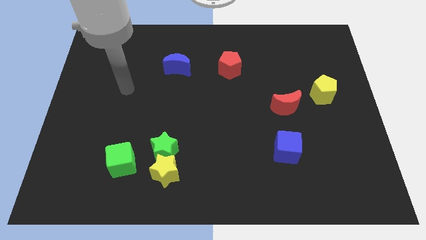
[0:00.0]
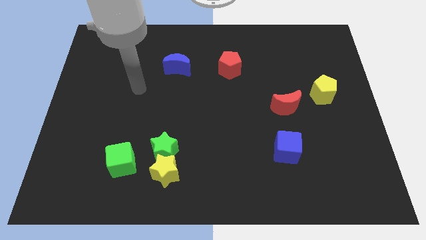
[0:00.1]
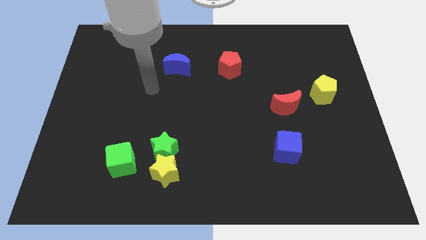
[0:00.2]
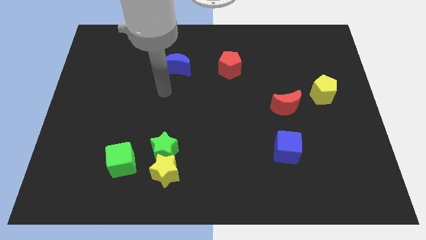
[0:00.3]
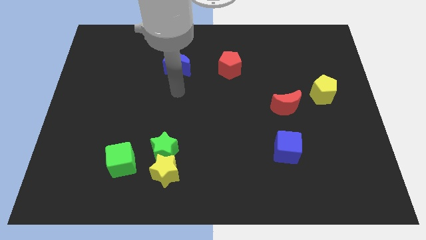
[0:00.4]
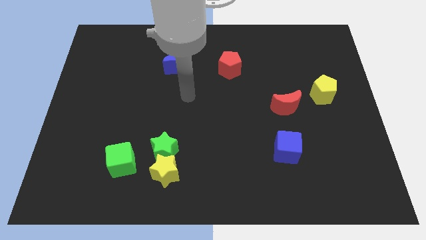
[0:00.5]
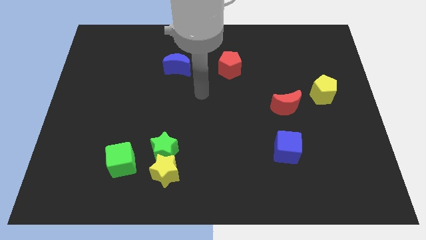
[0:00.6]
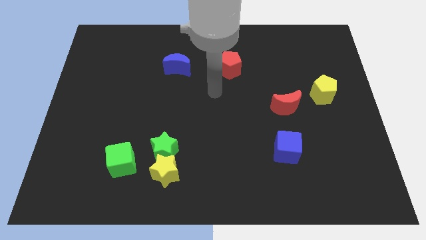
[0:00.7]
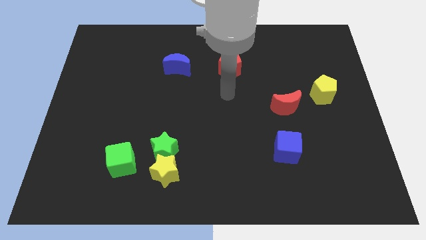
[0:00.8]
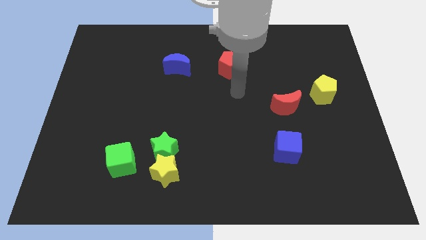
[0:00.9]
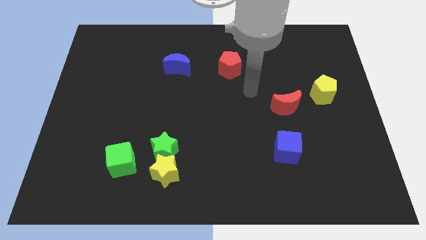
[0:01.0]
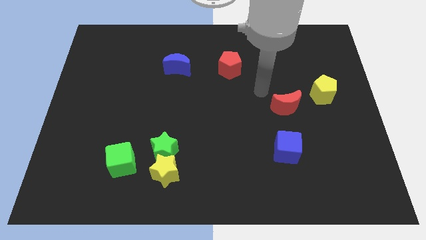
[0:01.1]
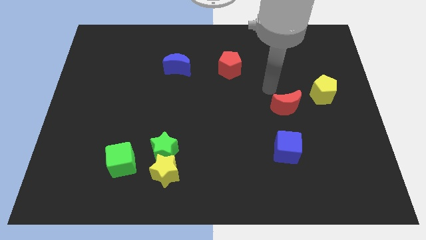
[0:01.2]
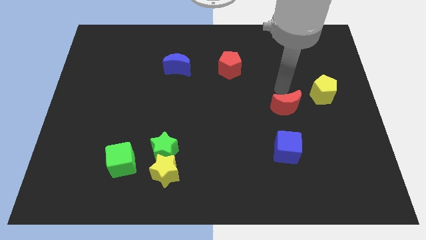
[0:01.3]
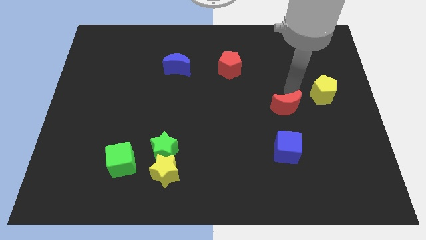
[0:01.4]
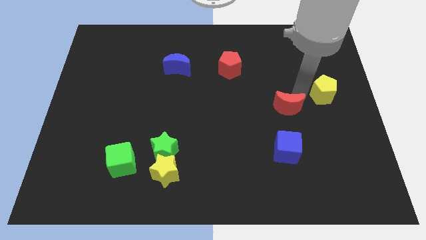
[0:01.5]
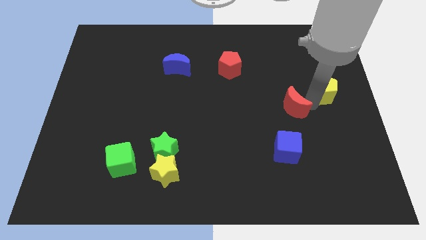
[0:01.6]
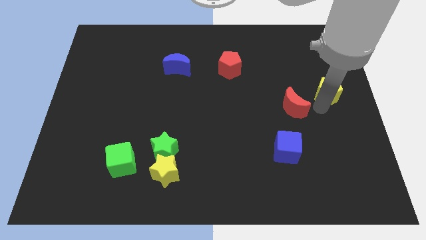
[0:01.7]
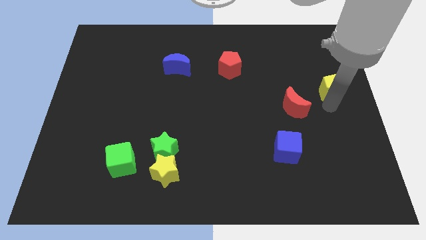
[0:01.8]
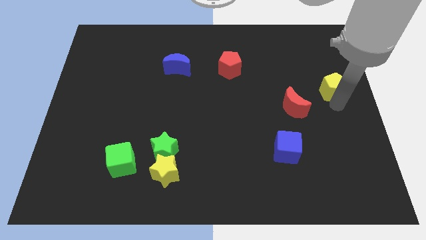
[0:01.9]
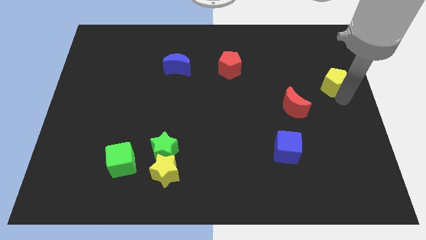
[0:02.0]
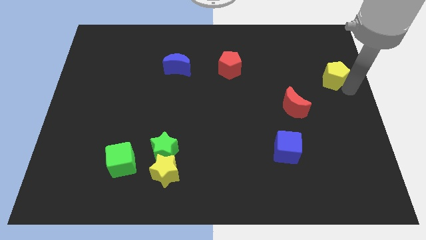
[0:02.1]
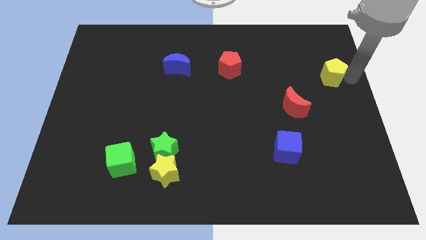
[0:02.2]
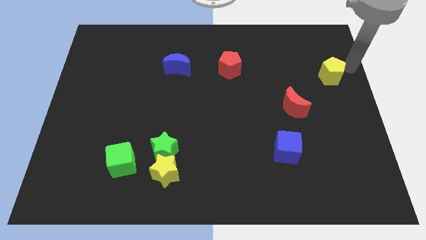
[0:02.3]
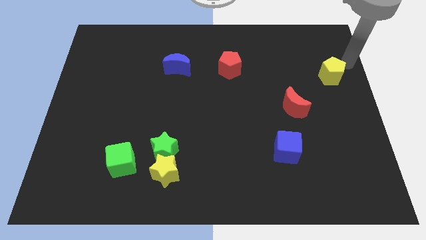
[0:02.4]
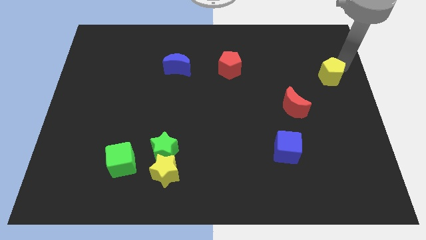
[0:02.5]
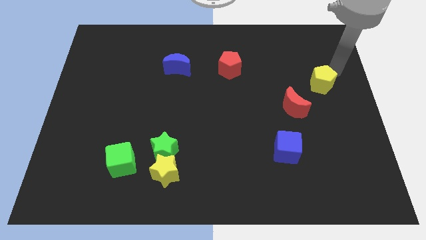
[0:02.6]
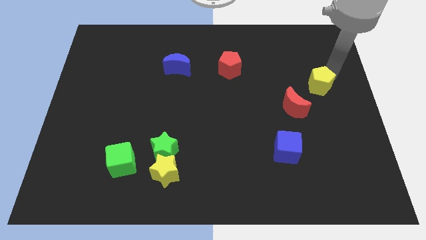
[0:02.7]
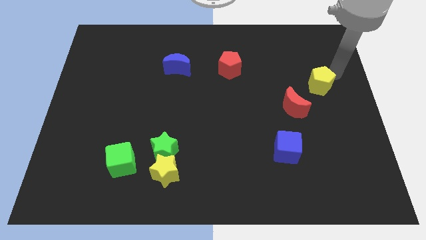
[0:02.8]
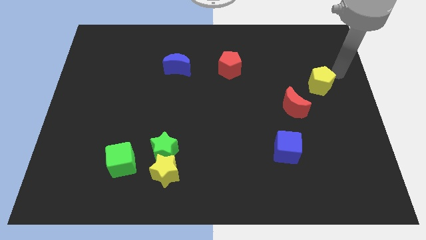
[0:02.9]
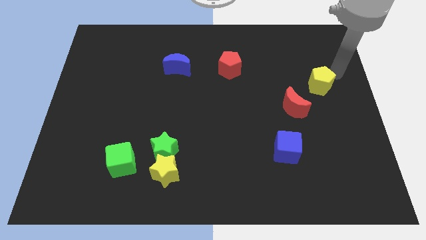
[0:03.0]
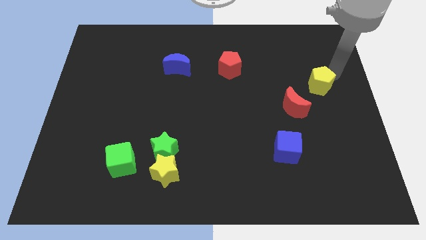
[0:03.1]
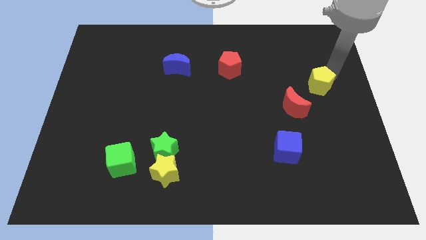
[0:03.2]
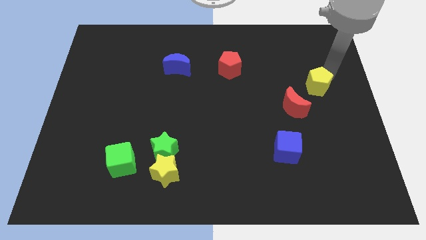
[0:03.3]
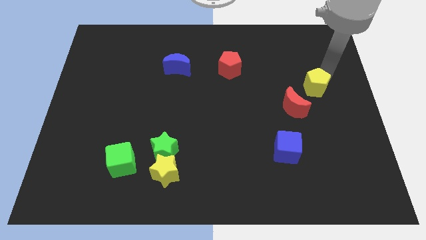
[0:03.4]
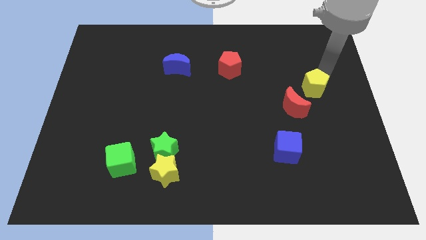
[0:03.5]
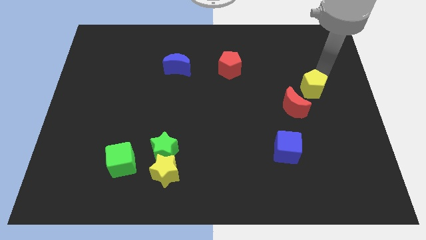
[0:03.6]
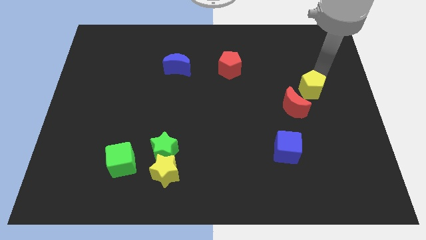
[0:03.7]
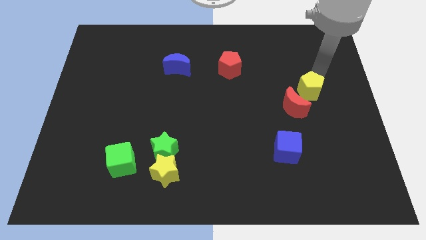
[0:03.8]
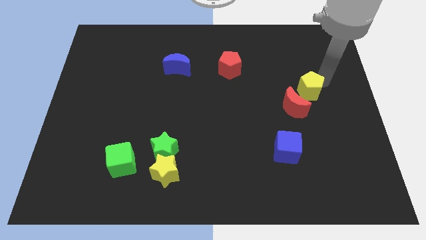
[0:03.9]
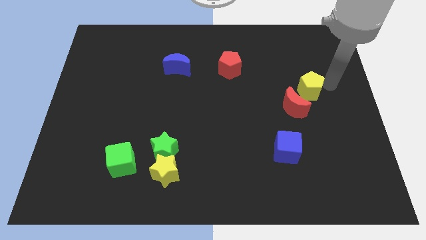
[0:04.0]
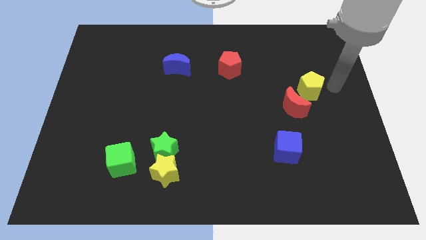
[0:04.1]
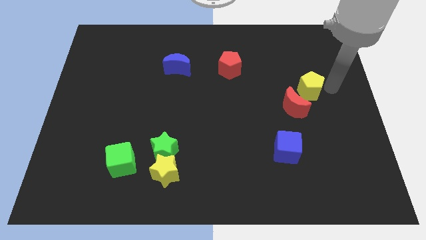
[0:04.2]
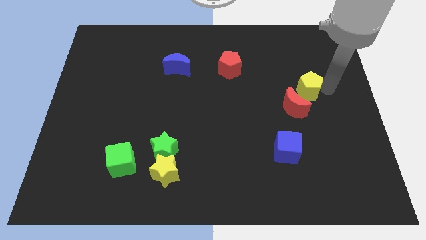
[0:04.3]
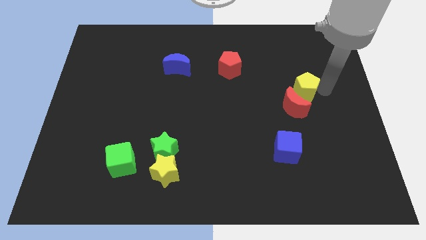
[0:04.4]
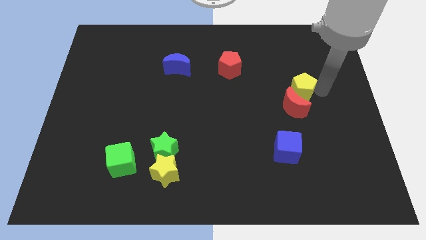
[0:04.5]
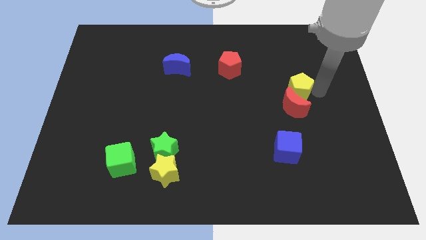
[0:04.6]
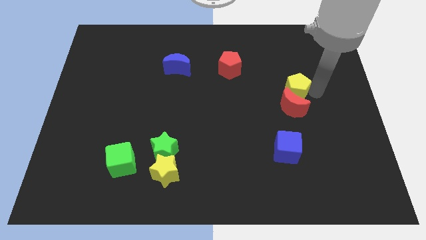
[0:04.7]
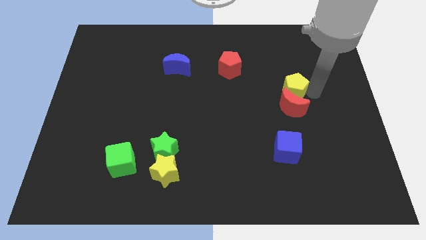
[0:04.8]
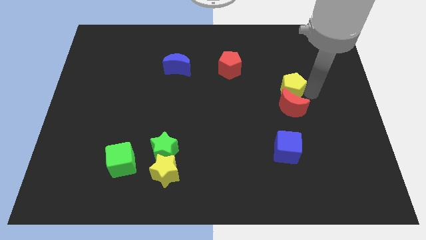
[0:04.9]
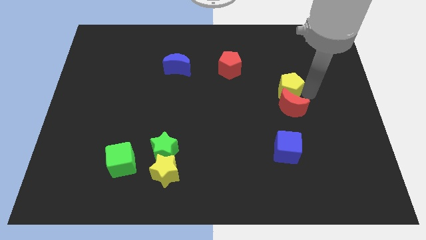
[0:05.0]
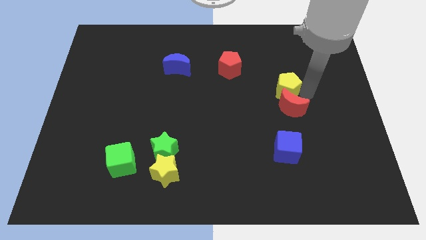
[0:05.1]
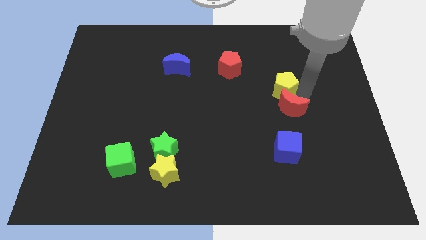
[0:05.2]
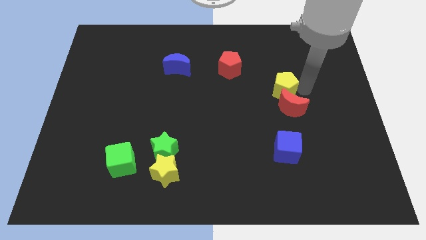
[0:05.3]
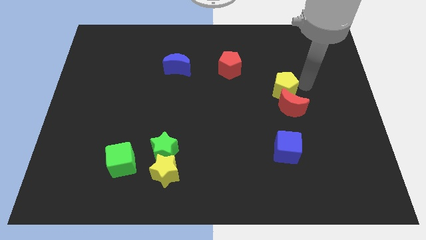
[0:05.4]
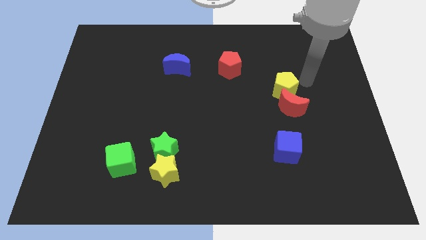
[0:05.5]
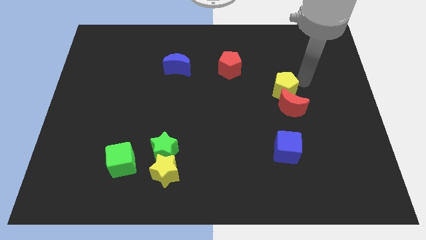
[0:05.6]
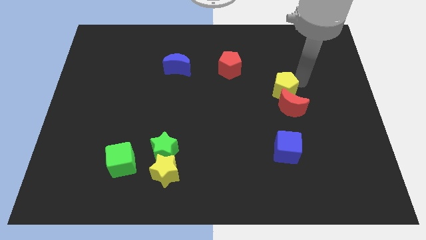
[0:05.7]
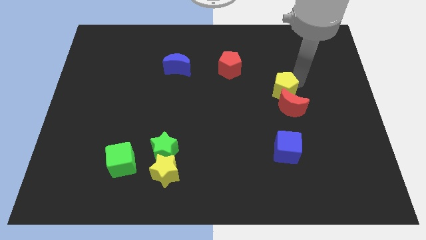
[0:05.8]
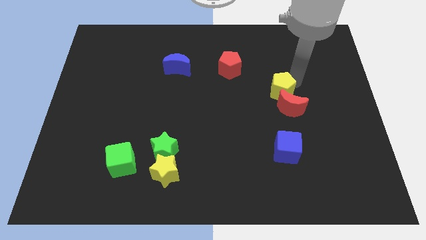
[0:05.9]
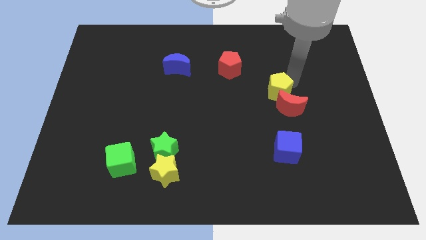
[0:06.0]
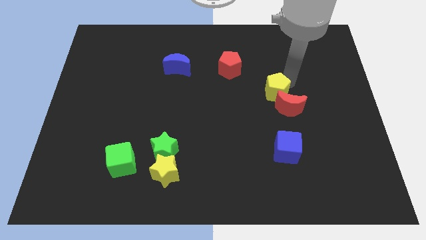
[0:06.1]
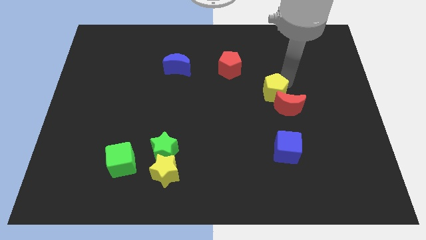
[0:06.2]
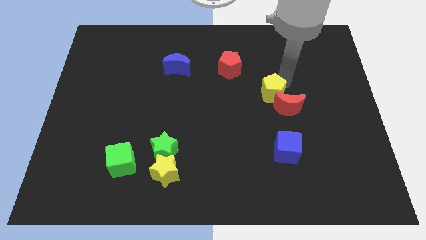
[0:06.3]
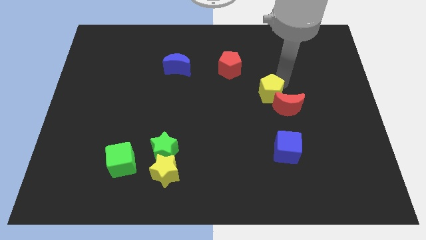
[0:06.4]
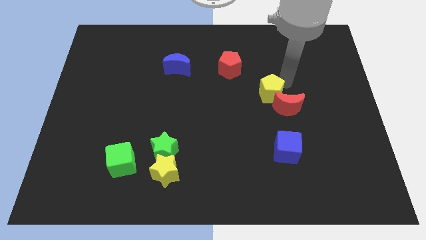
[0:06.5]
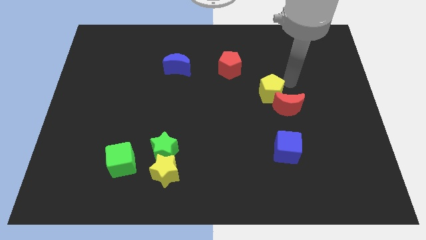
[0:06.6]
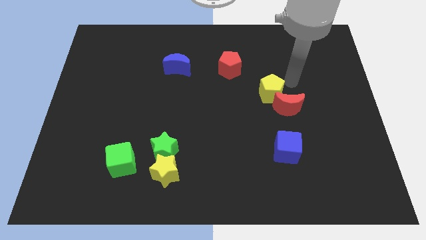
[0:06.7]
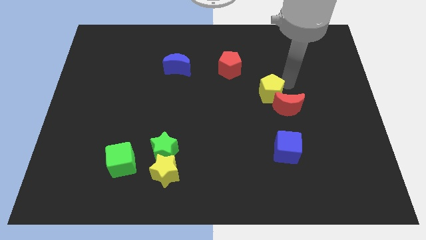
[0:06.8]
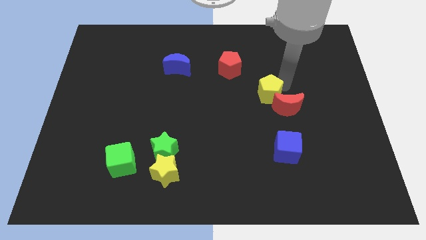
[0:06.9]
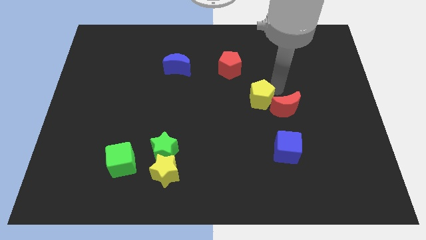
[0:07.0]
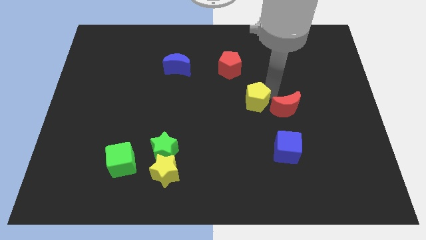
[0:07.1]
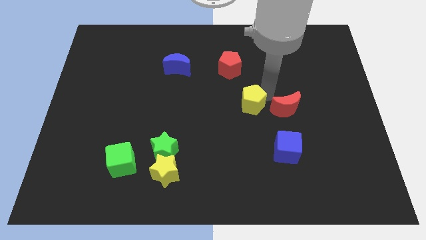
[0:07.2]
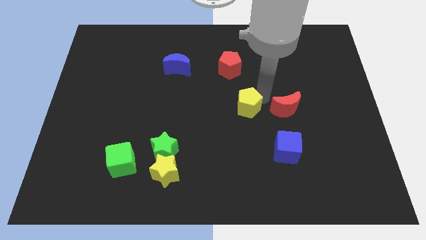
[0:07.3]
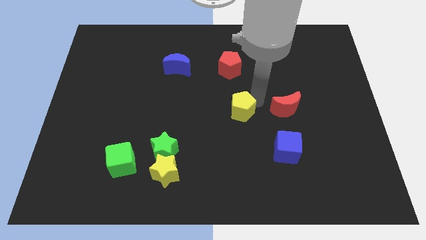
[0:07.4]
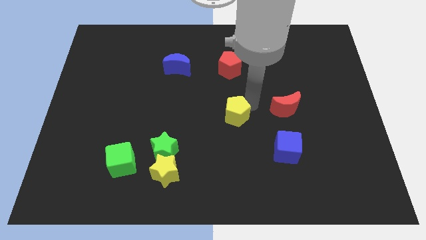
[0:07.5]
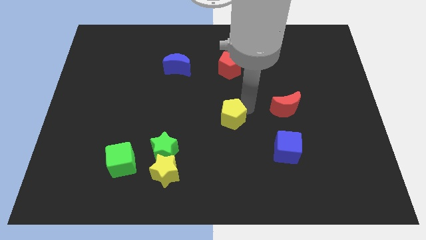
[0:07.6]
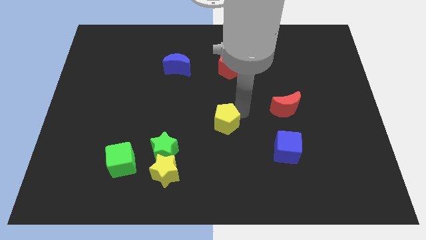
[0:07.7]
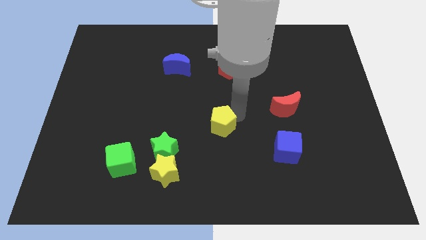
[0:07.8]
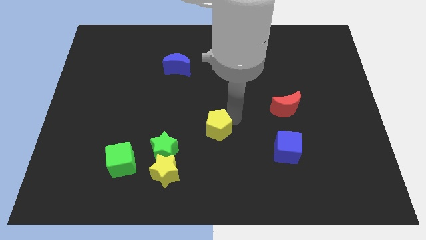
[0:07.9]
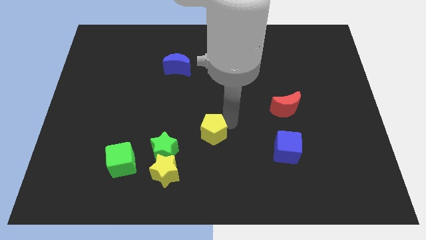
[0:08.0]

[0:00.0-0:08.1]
move the yellow pentagon to the top right side of the green star
